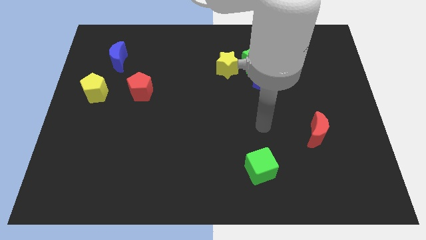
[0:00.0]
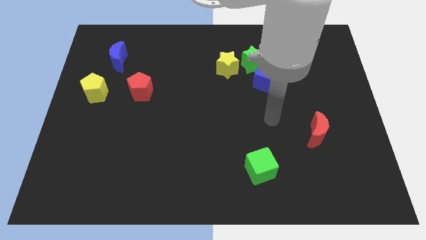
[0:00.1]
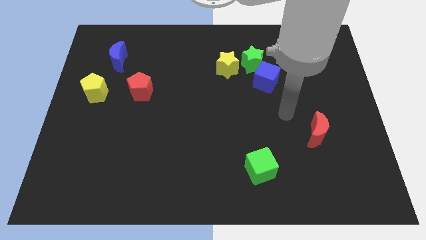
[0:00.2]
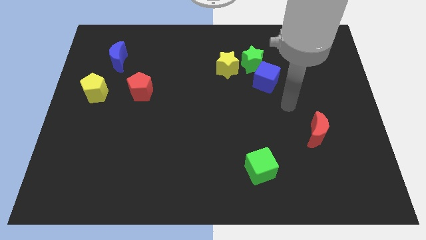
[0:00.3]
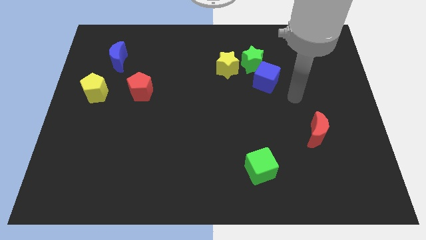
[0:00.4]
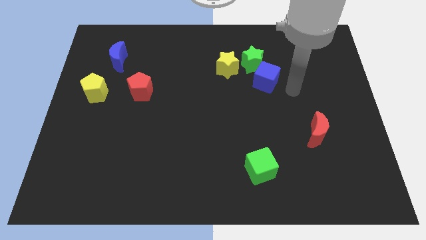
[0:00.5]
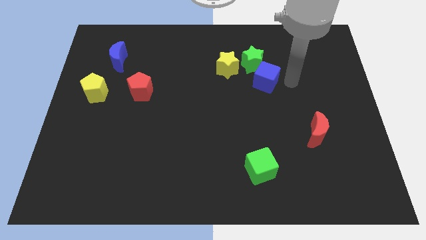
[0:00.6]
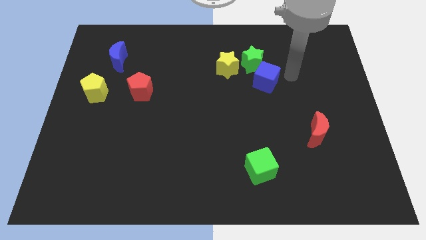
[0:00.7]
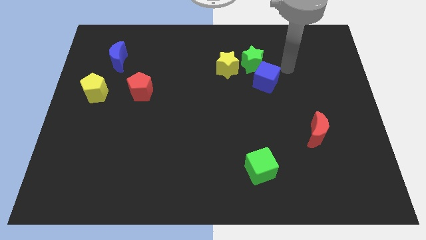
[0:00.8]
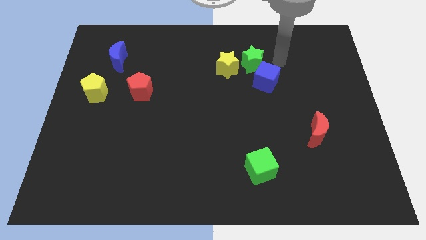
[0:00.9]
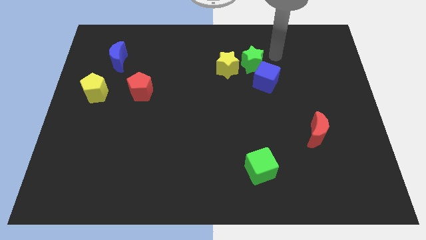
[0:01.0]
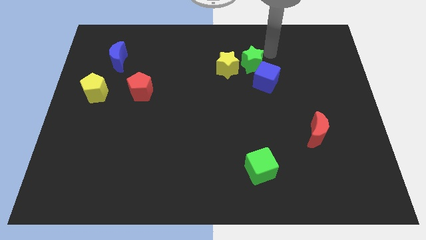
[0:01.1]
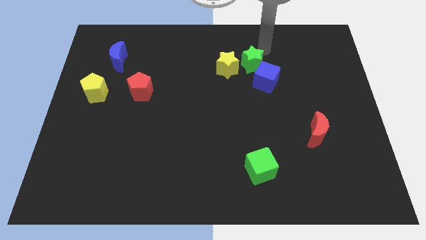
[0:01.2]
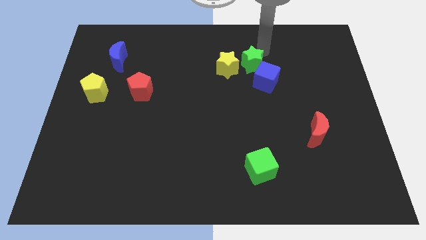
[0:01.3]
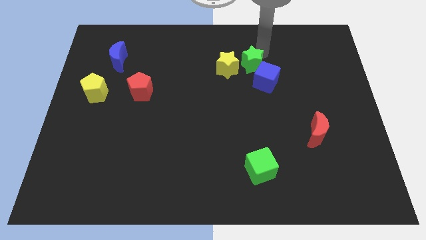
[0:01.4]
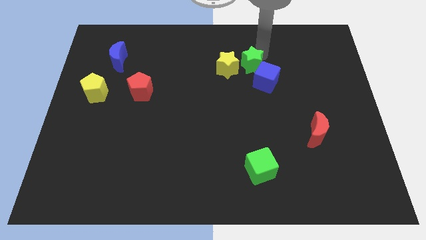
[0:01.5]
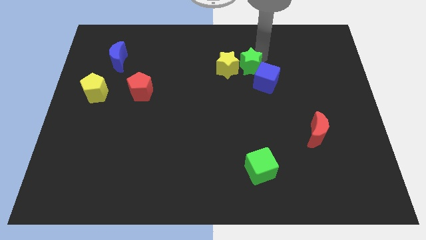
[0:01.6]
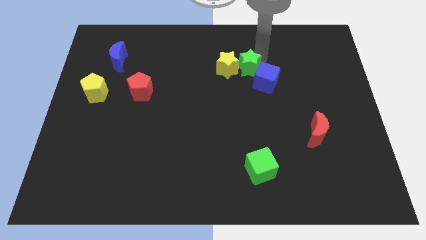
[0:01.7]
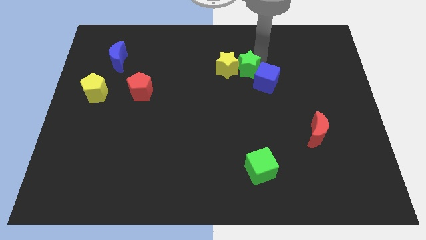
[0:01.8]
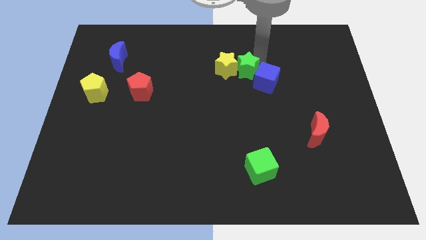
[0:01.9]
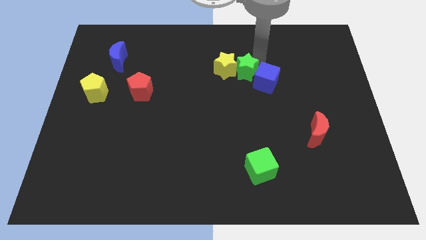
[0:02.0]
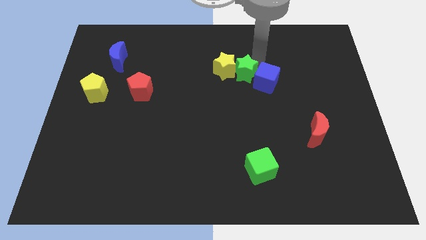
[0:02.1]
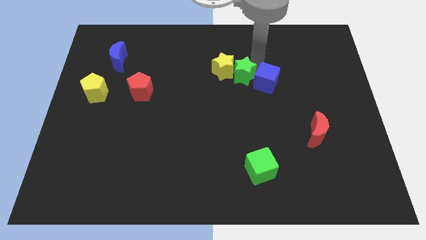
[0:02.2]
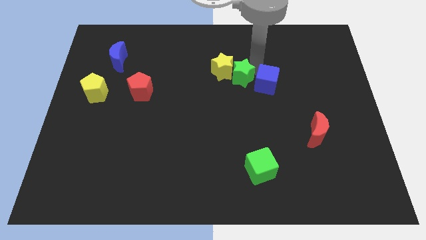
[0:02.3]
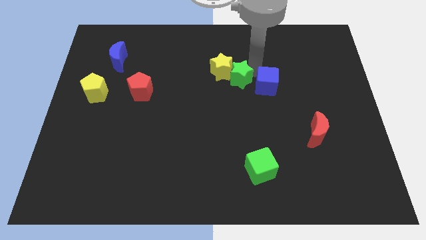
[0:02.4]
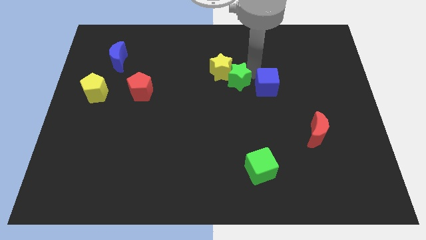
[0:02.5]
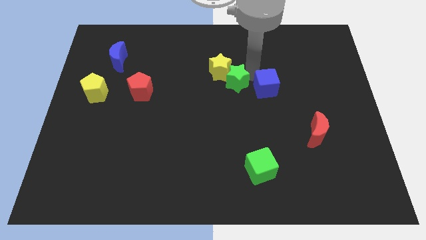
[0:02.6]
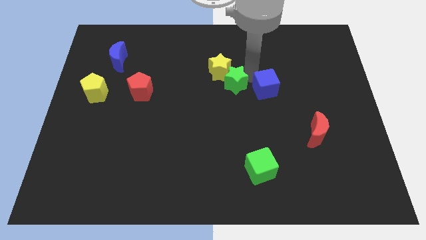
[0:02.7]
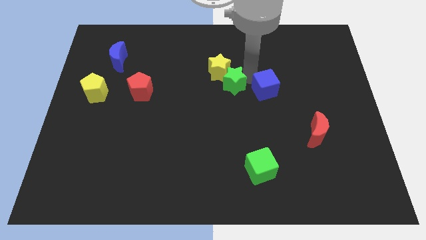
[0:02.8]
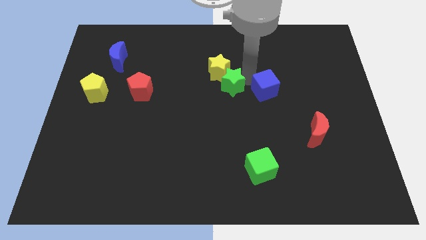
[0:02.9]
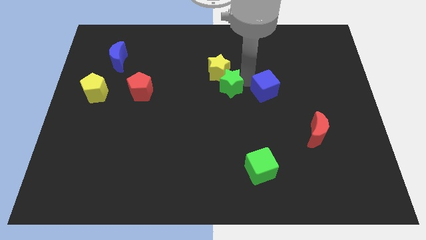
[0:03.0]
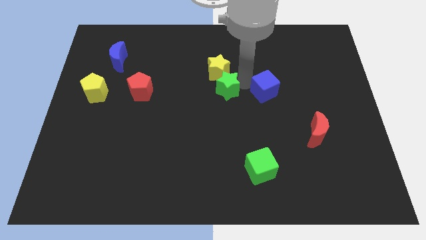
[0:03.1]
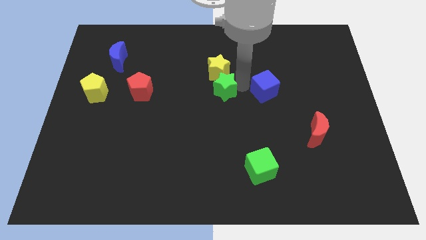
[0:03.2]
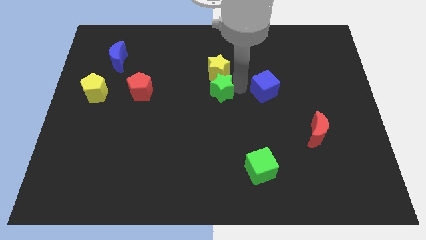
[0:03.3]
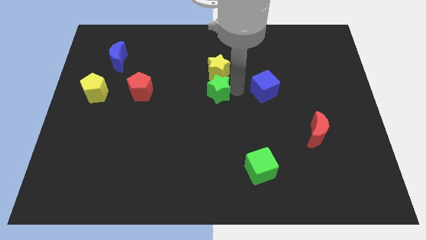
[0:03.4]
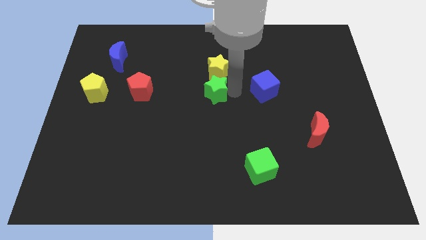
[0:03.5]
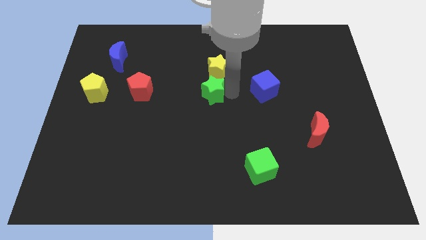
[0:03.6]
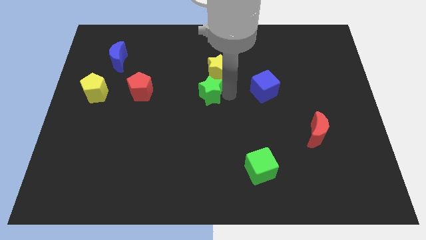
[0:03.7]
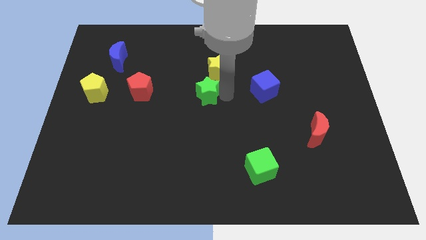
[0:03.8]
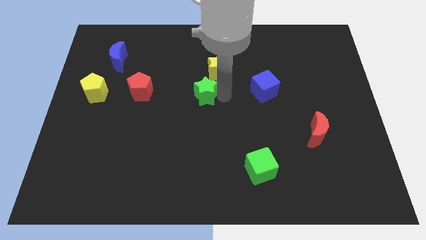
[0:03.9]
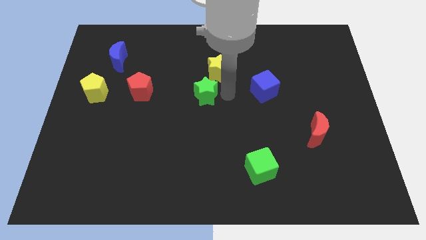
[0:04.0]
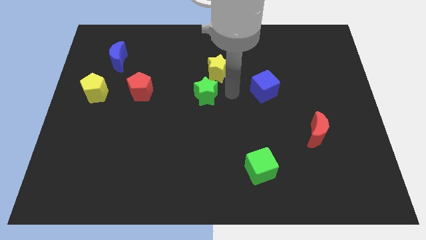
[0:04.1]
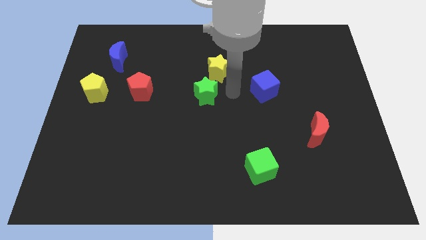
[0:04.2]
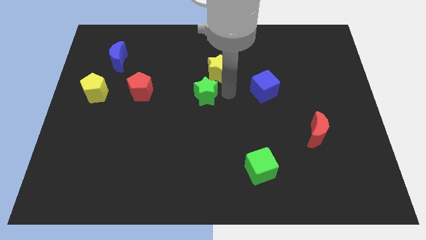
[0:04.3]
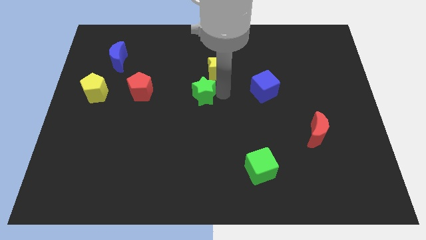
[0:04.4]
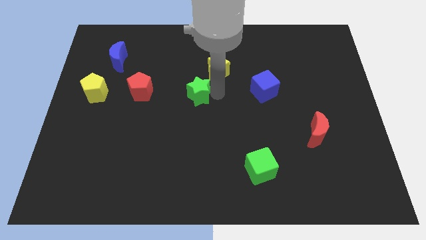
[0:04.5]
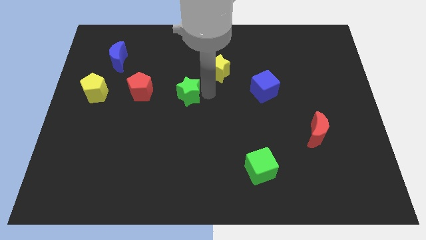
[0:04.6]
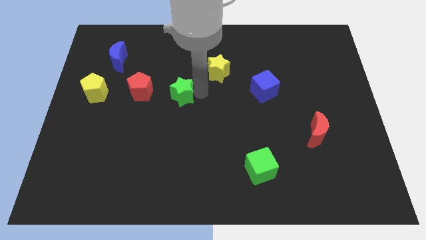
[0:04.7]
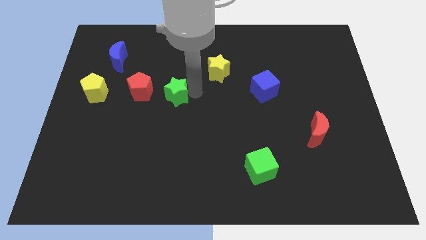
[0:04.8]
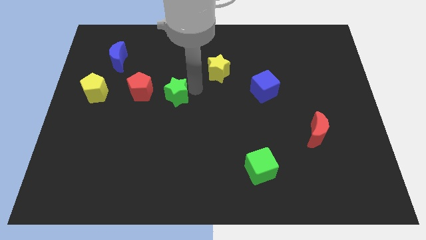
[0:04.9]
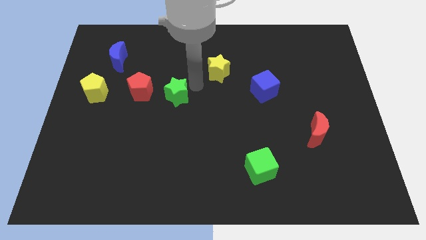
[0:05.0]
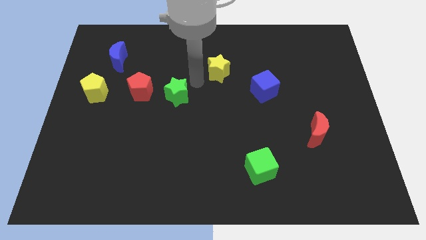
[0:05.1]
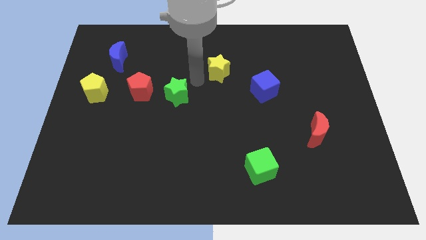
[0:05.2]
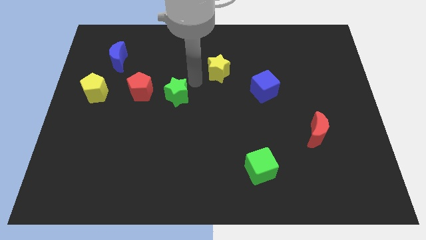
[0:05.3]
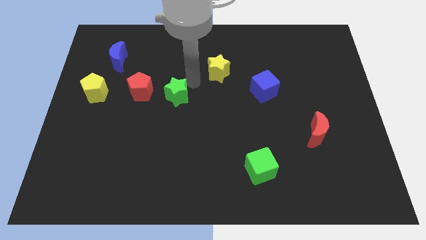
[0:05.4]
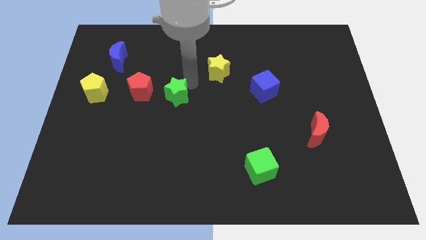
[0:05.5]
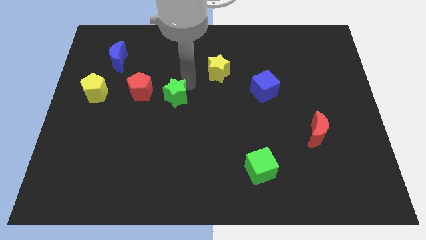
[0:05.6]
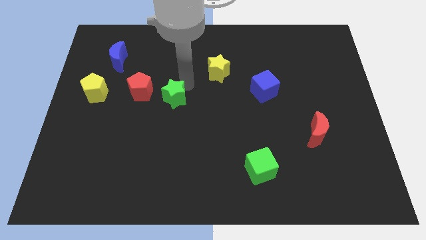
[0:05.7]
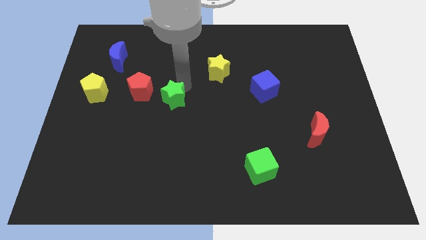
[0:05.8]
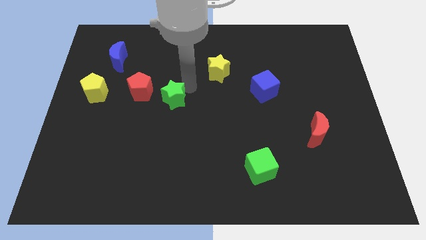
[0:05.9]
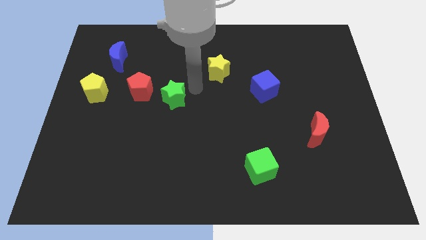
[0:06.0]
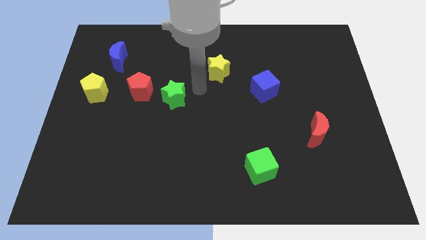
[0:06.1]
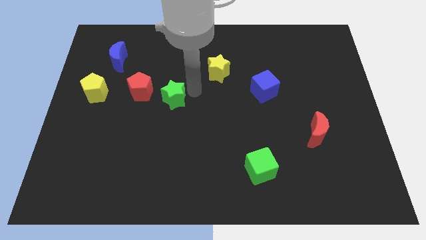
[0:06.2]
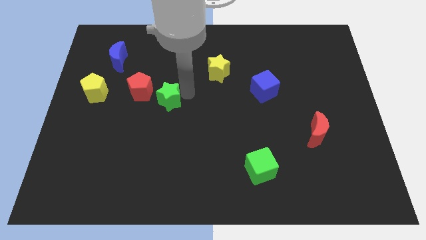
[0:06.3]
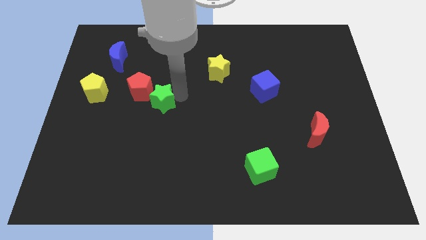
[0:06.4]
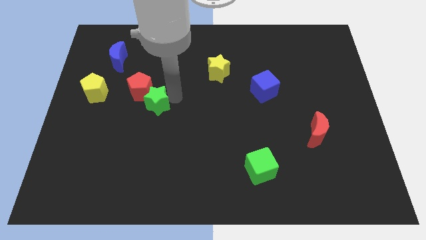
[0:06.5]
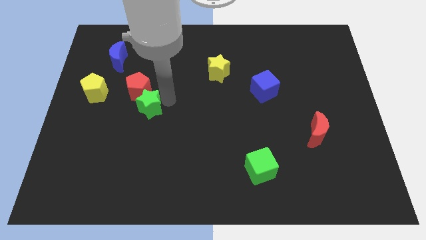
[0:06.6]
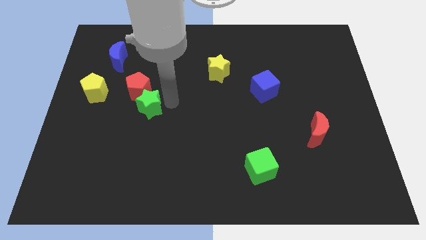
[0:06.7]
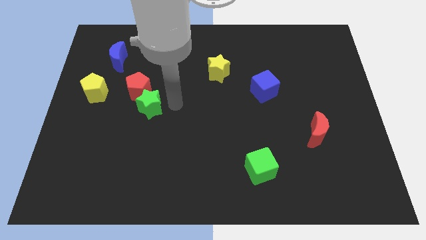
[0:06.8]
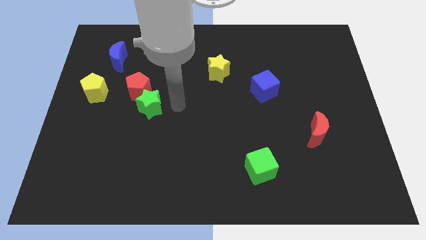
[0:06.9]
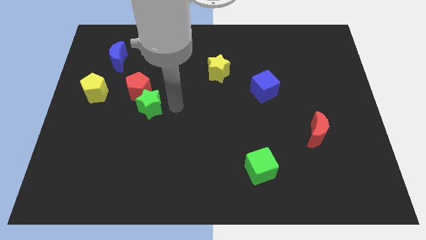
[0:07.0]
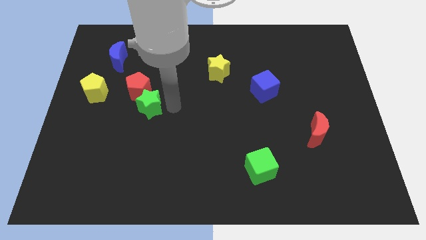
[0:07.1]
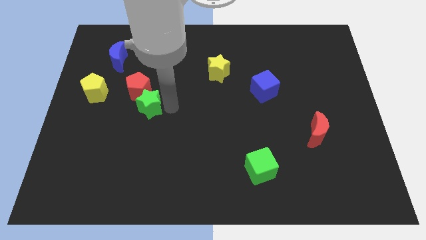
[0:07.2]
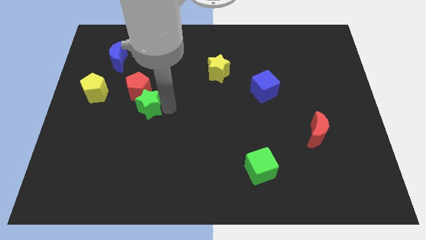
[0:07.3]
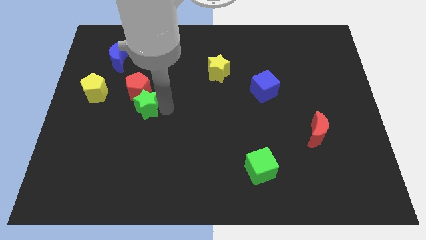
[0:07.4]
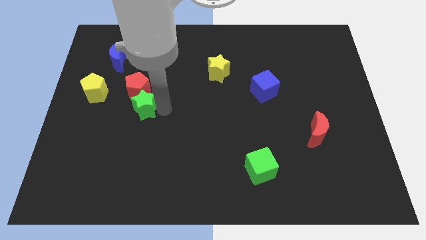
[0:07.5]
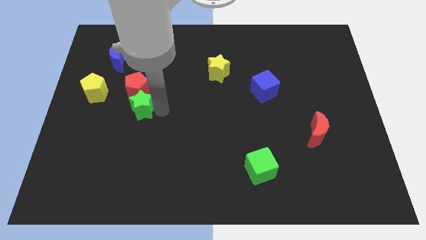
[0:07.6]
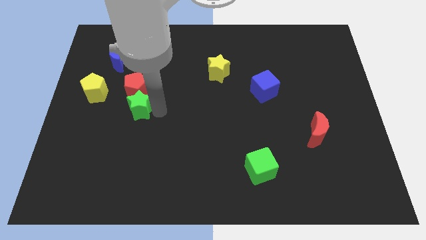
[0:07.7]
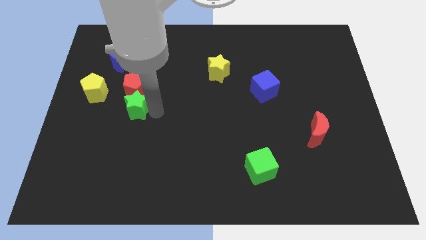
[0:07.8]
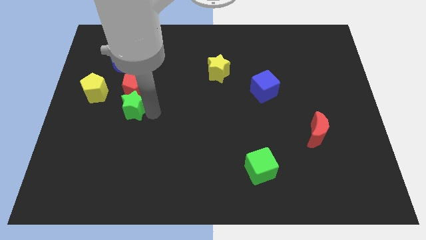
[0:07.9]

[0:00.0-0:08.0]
push the green star diagonally down and to the right of the yellow pentagon
